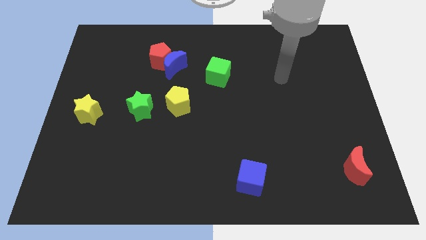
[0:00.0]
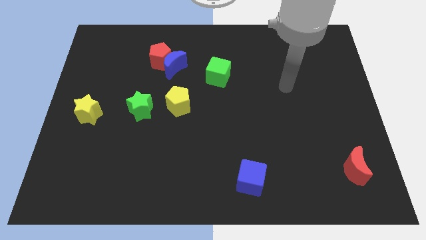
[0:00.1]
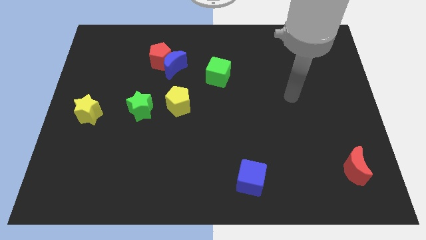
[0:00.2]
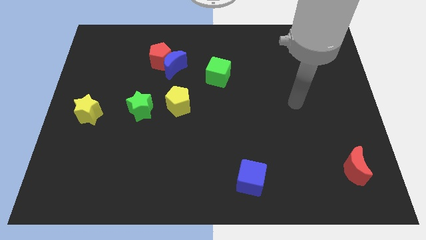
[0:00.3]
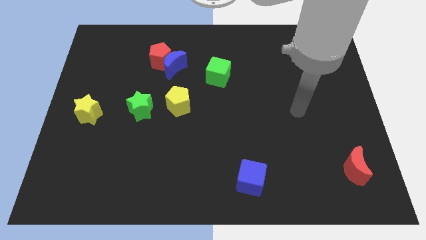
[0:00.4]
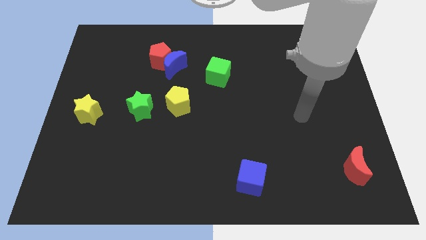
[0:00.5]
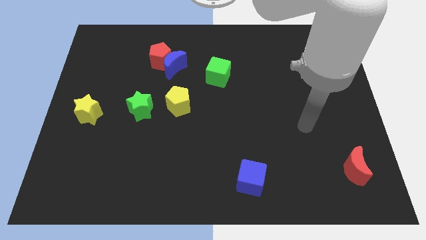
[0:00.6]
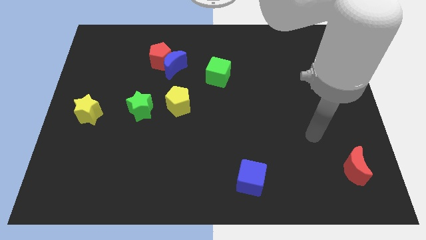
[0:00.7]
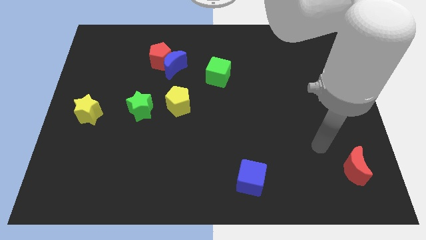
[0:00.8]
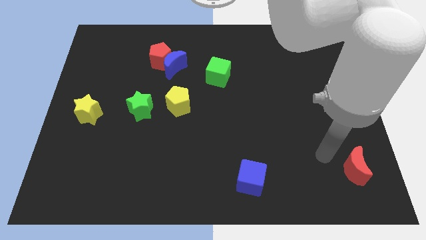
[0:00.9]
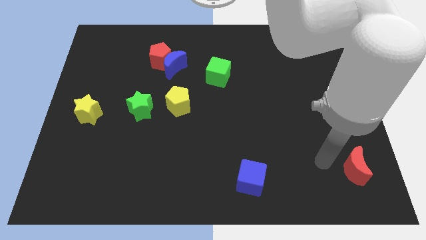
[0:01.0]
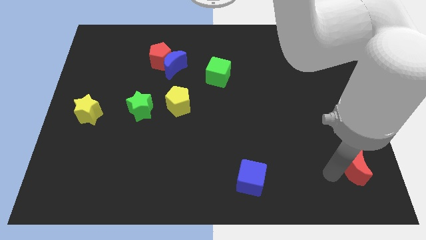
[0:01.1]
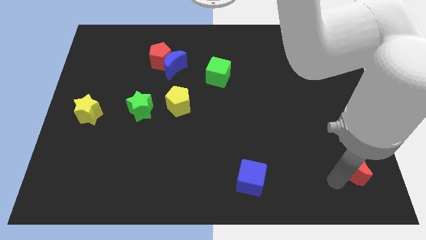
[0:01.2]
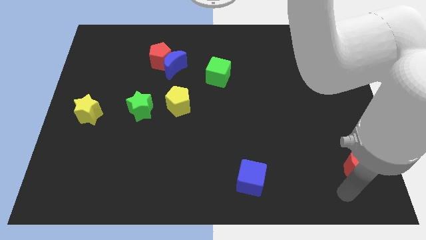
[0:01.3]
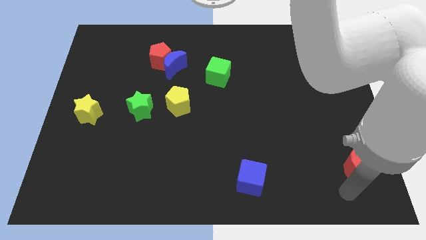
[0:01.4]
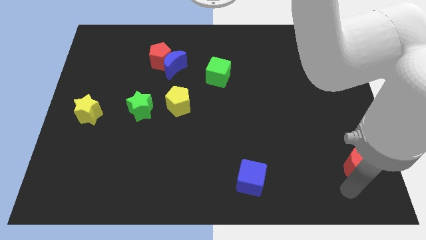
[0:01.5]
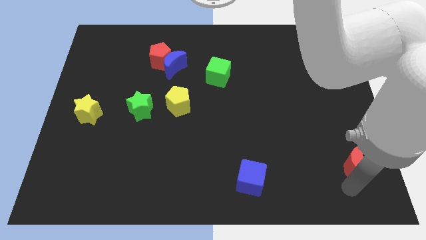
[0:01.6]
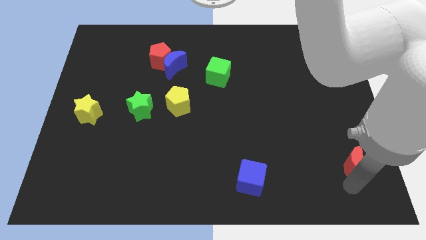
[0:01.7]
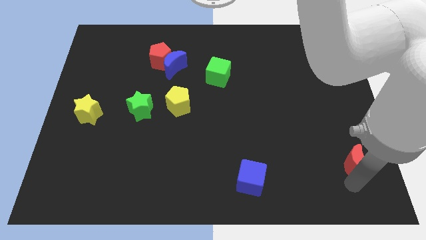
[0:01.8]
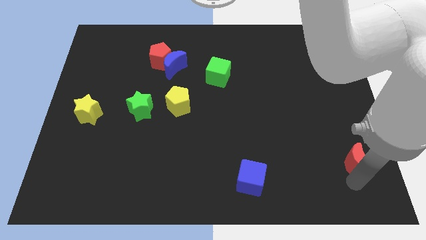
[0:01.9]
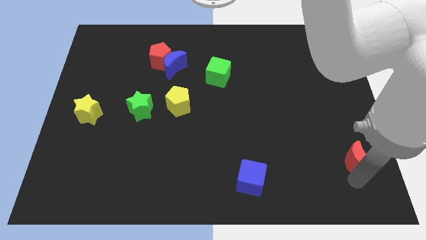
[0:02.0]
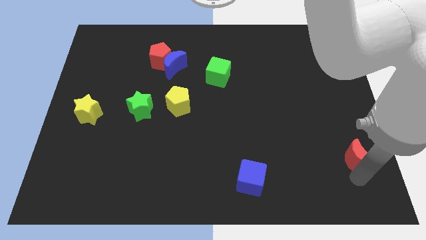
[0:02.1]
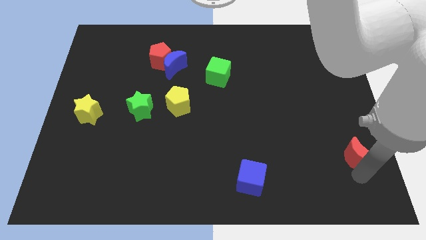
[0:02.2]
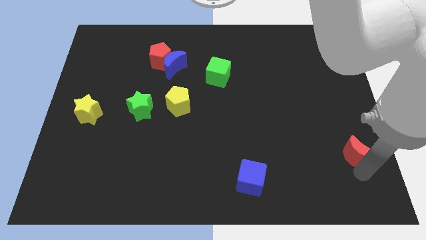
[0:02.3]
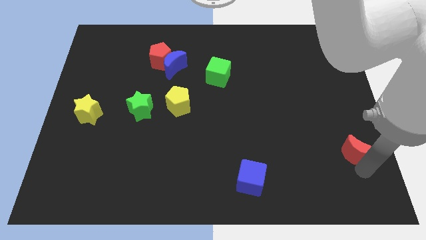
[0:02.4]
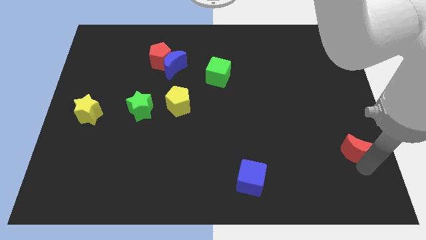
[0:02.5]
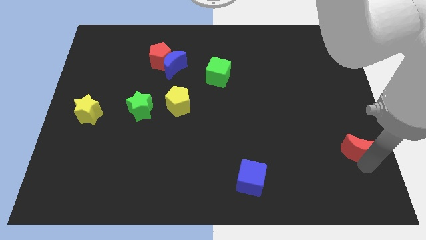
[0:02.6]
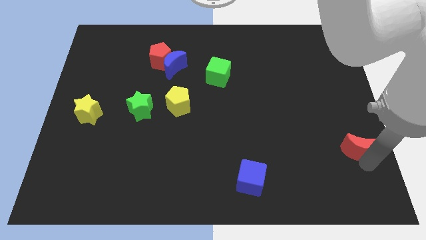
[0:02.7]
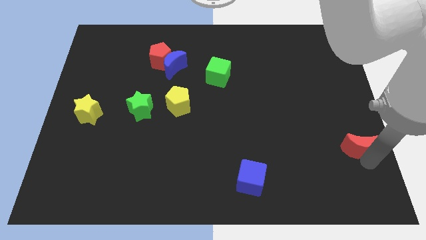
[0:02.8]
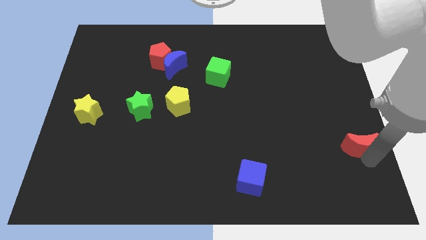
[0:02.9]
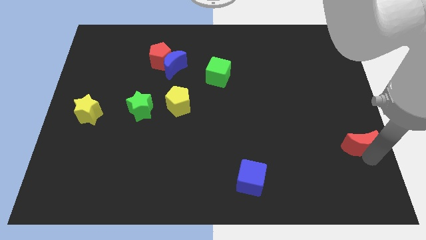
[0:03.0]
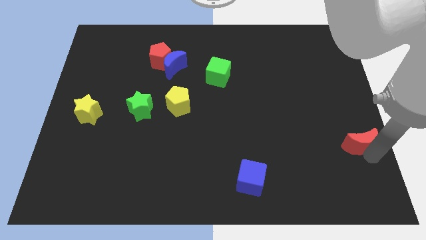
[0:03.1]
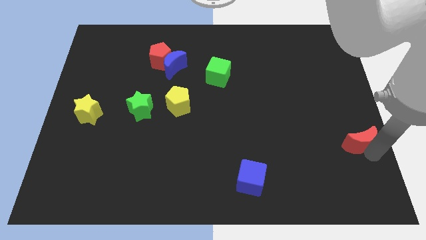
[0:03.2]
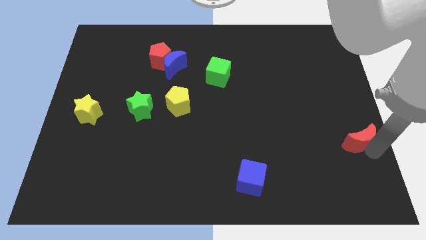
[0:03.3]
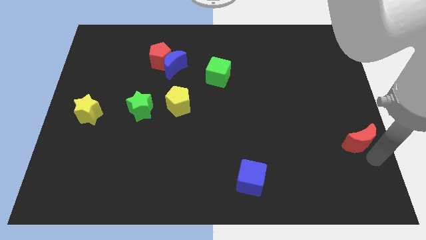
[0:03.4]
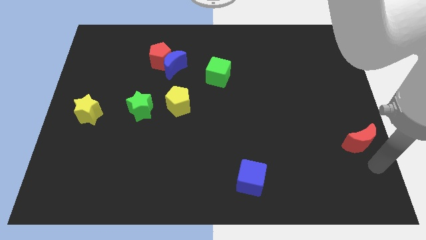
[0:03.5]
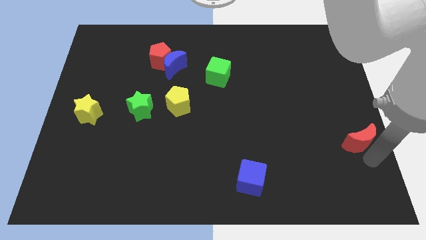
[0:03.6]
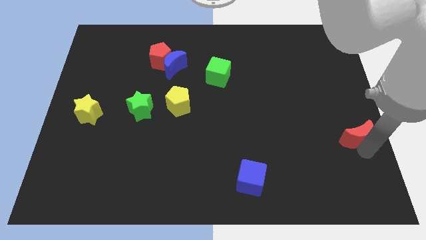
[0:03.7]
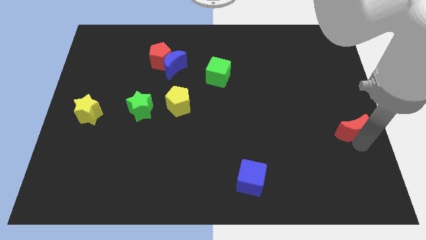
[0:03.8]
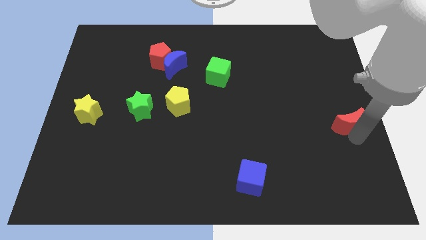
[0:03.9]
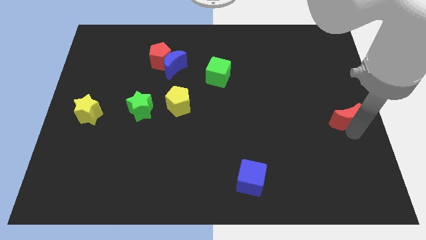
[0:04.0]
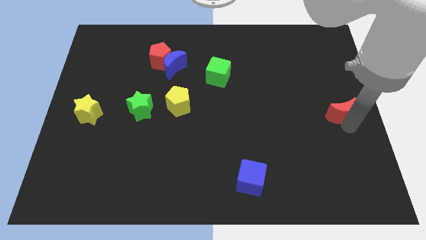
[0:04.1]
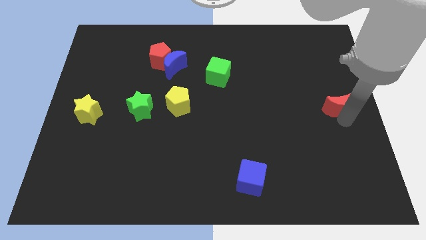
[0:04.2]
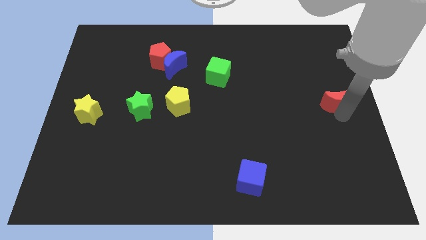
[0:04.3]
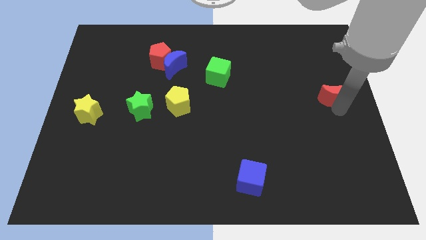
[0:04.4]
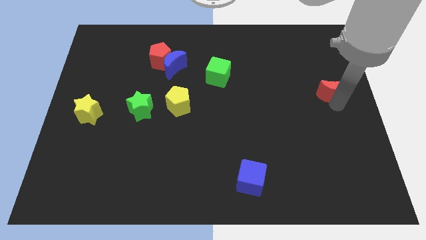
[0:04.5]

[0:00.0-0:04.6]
slide the red moon up

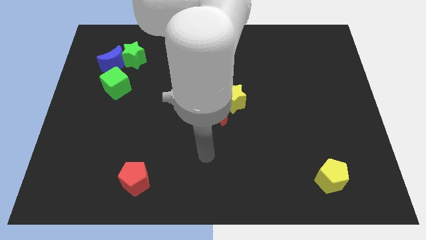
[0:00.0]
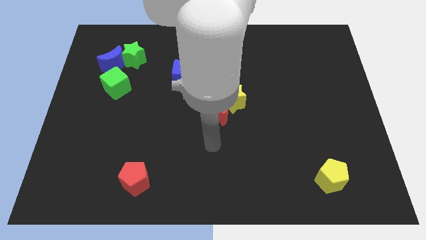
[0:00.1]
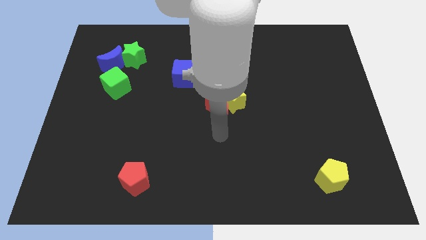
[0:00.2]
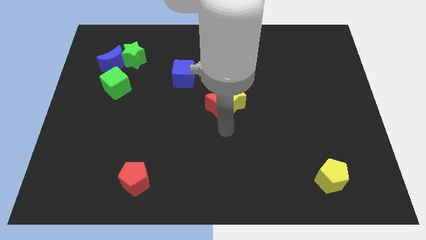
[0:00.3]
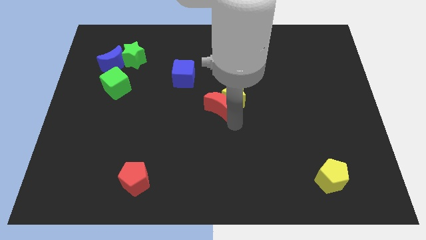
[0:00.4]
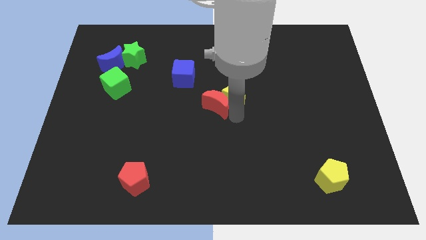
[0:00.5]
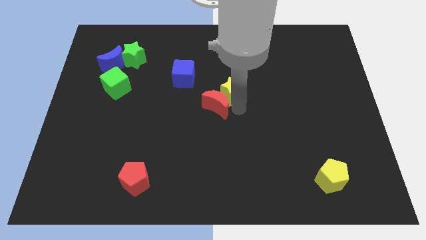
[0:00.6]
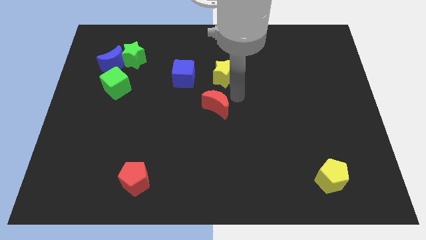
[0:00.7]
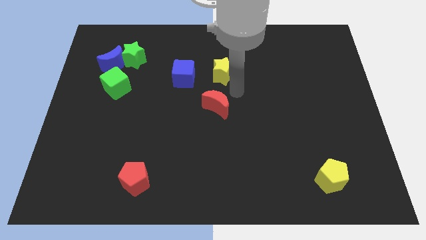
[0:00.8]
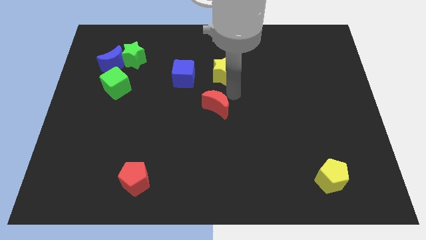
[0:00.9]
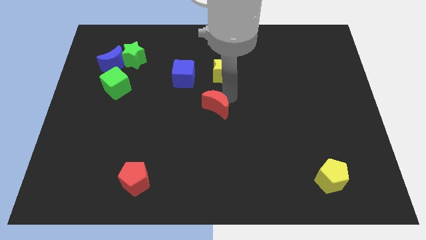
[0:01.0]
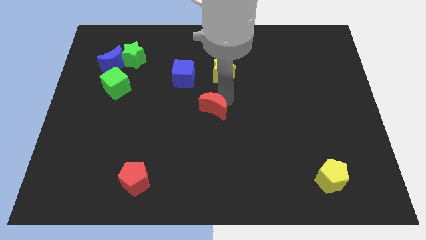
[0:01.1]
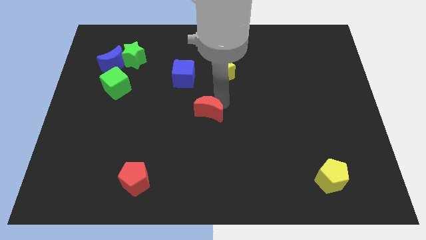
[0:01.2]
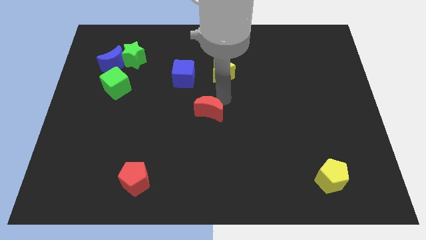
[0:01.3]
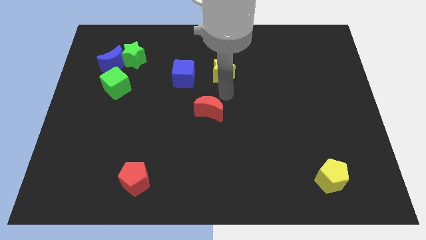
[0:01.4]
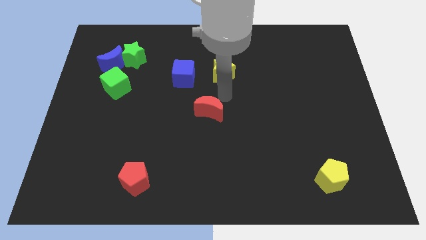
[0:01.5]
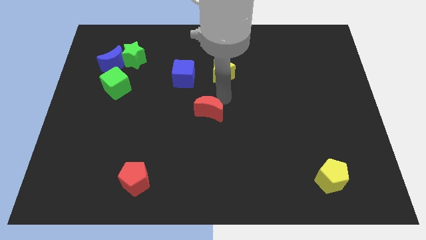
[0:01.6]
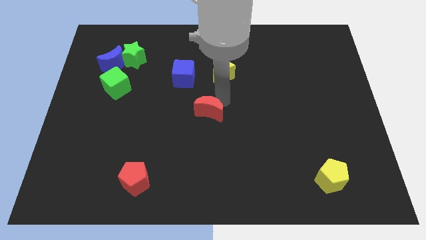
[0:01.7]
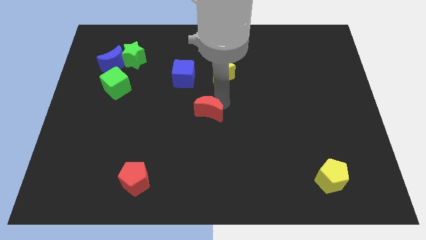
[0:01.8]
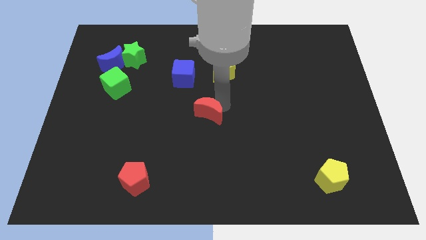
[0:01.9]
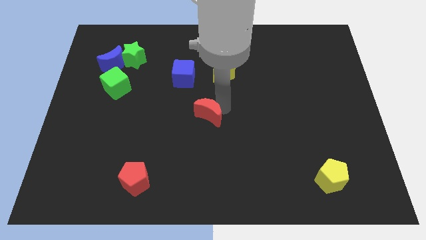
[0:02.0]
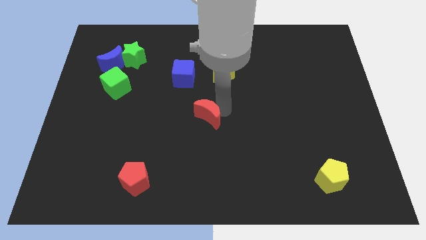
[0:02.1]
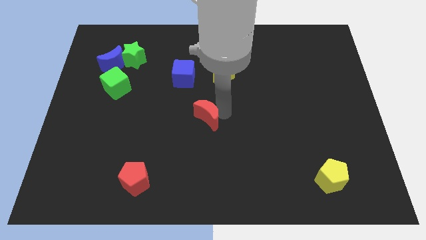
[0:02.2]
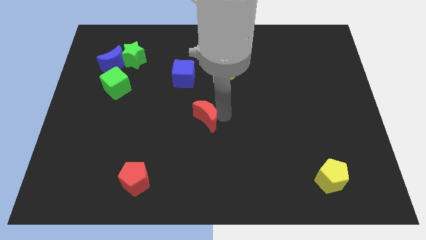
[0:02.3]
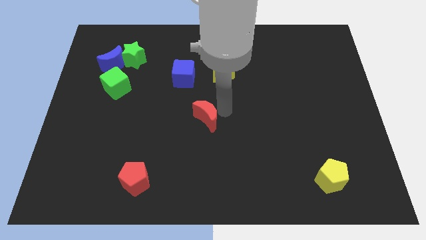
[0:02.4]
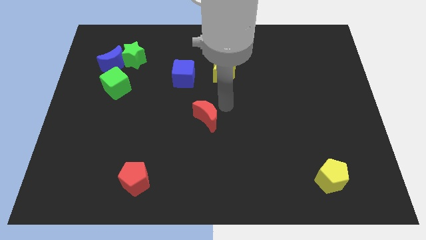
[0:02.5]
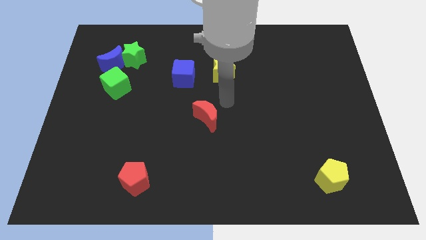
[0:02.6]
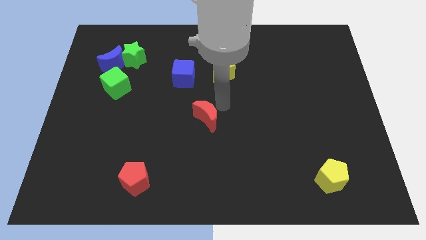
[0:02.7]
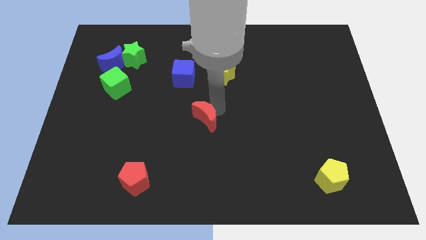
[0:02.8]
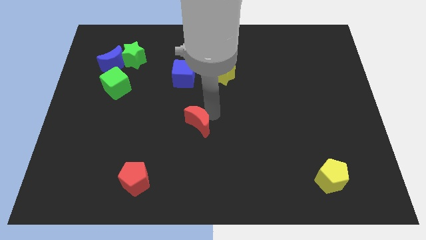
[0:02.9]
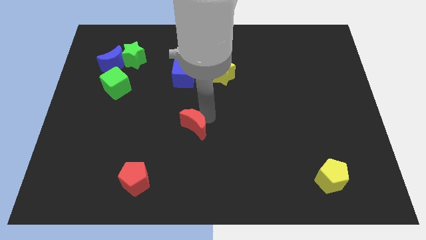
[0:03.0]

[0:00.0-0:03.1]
slightly slide the red moon down and left diagonally

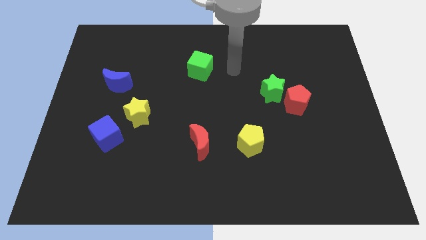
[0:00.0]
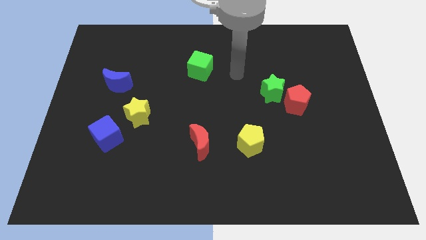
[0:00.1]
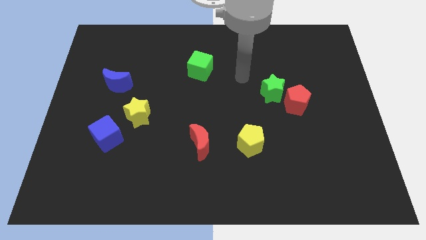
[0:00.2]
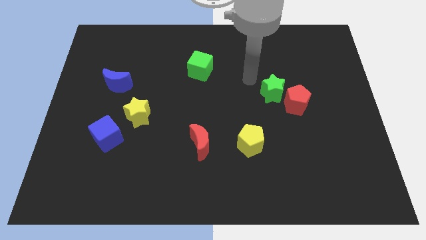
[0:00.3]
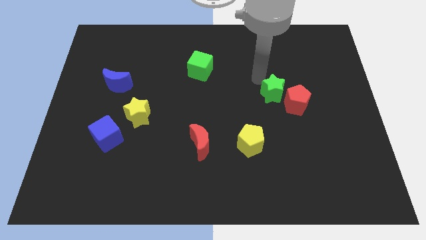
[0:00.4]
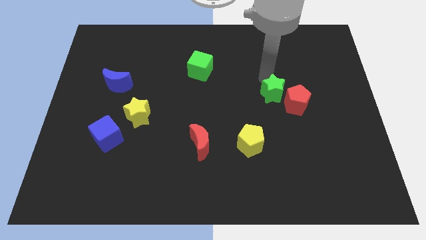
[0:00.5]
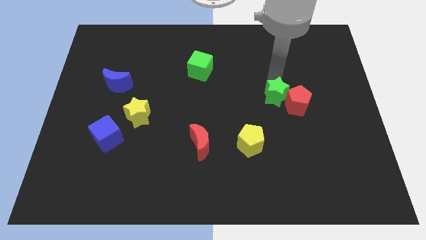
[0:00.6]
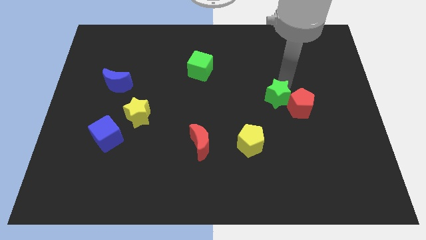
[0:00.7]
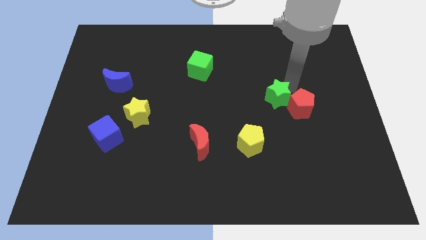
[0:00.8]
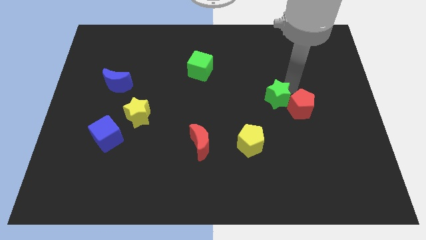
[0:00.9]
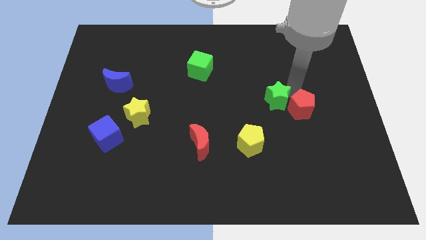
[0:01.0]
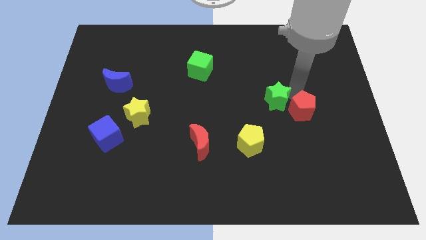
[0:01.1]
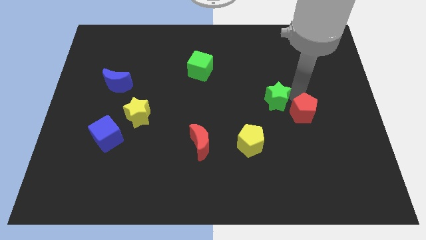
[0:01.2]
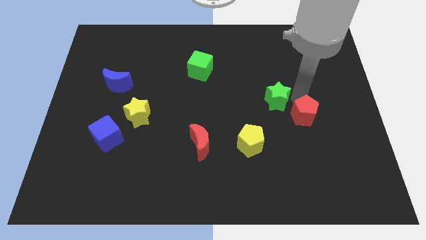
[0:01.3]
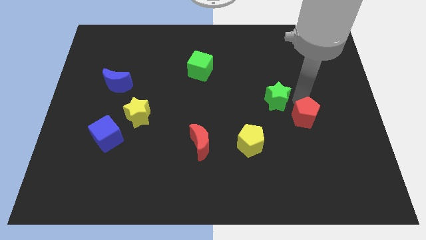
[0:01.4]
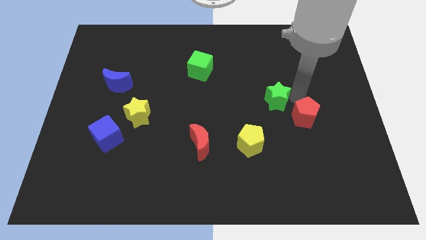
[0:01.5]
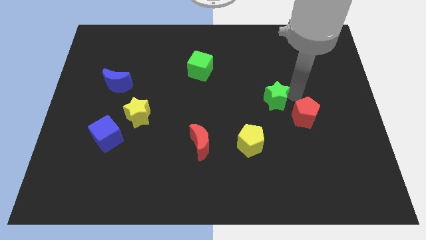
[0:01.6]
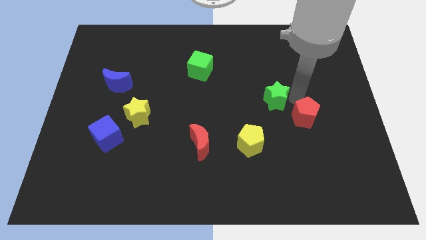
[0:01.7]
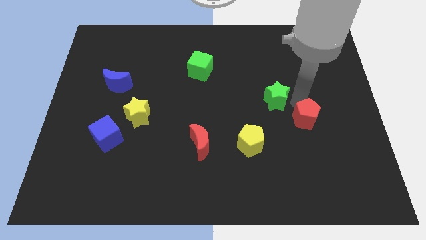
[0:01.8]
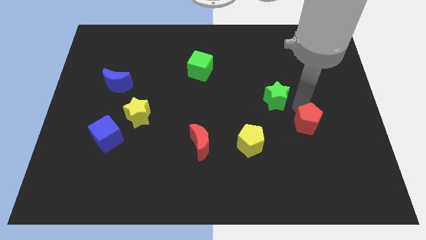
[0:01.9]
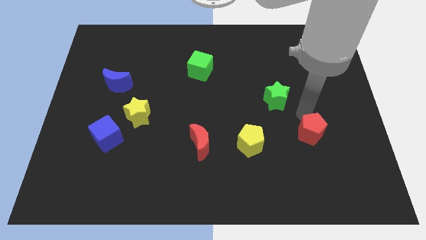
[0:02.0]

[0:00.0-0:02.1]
slightly slide the red pentagon down
